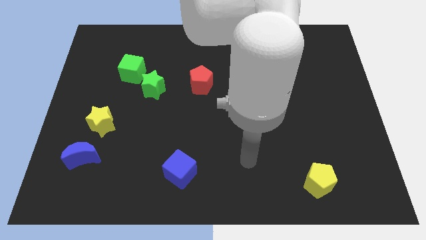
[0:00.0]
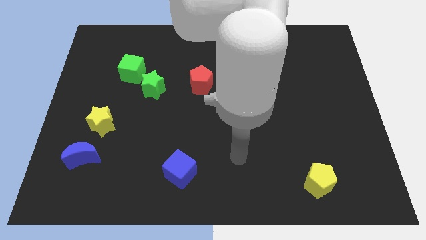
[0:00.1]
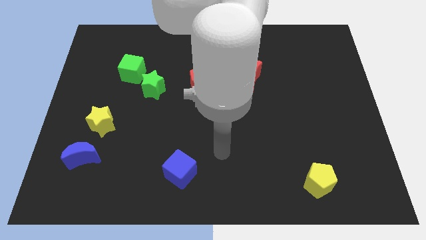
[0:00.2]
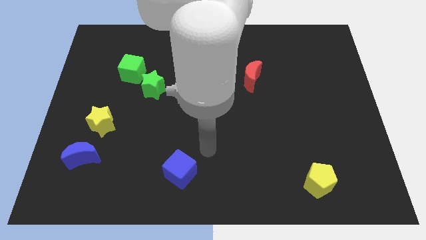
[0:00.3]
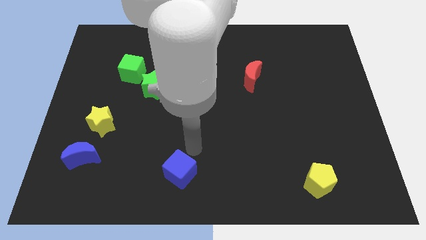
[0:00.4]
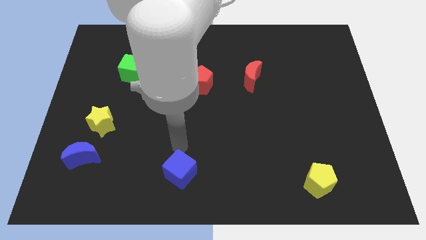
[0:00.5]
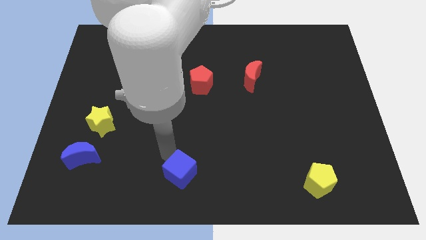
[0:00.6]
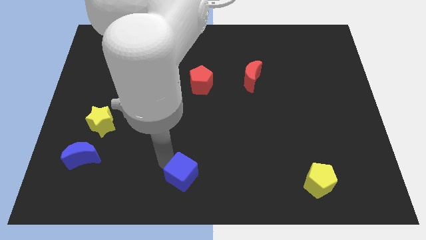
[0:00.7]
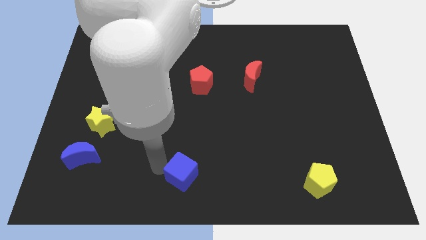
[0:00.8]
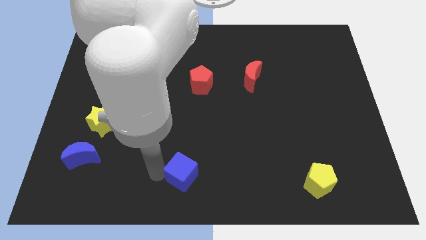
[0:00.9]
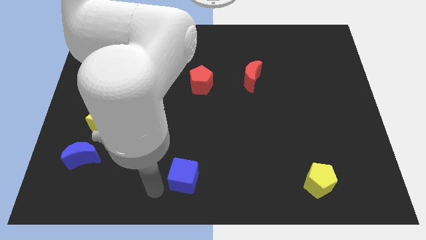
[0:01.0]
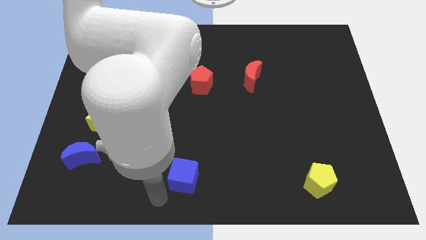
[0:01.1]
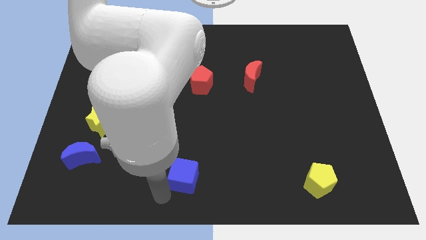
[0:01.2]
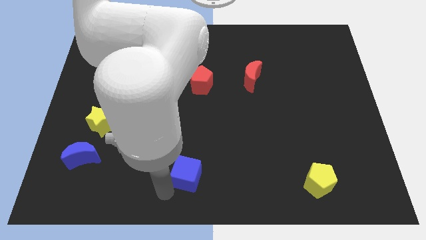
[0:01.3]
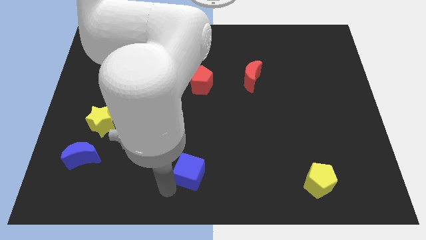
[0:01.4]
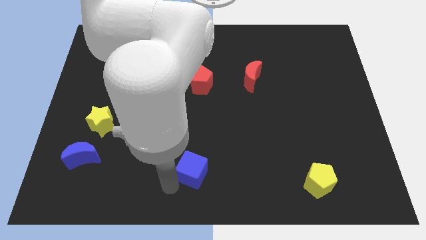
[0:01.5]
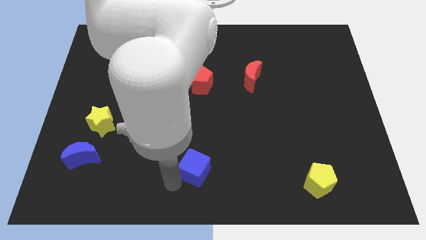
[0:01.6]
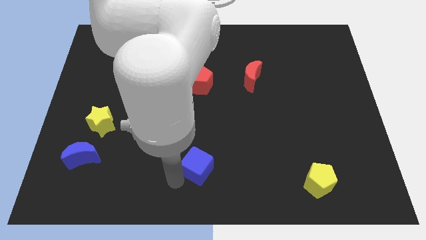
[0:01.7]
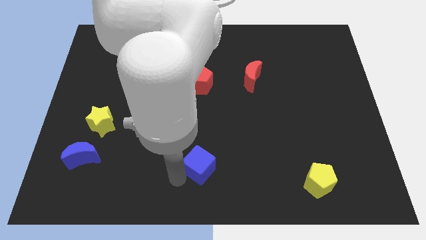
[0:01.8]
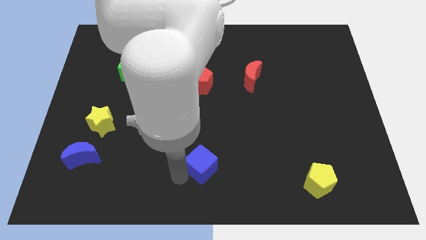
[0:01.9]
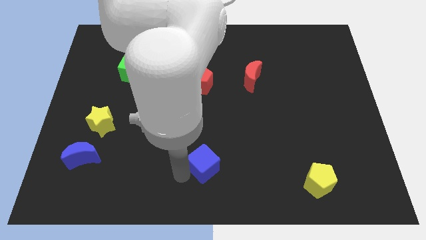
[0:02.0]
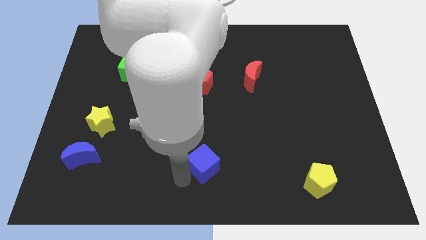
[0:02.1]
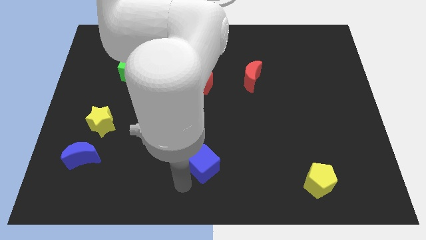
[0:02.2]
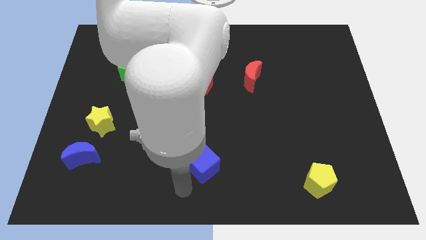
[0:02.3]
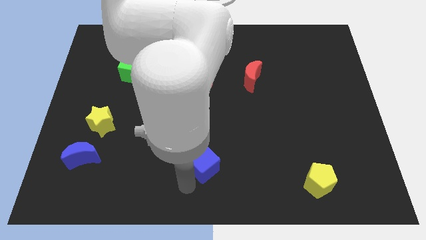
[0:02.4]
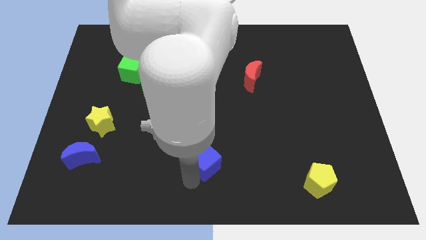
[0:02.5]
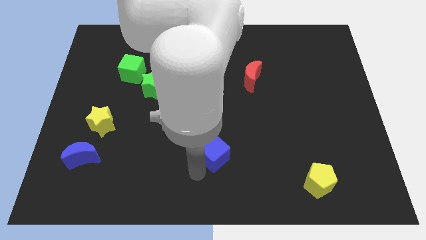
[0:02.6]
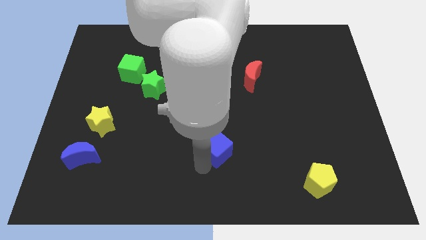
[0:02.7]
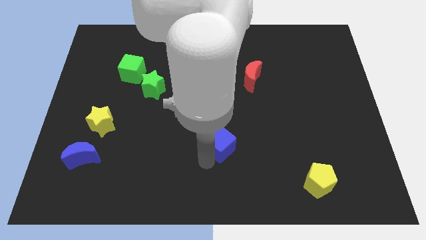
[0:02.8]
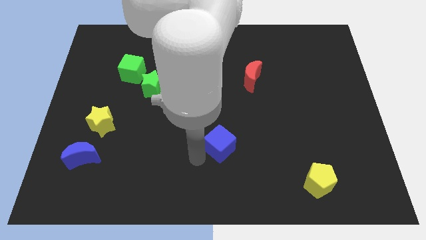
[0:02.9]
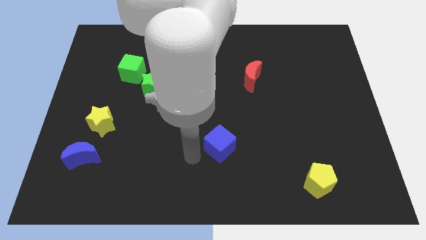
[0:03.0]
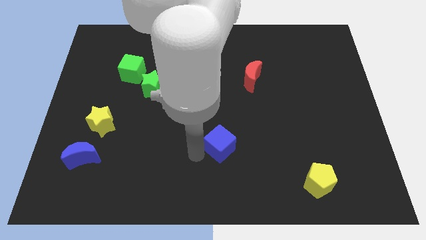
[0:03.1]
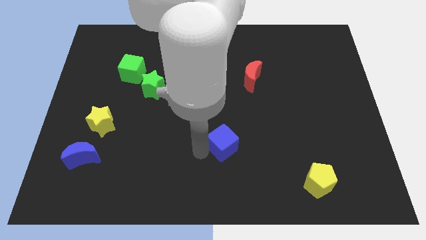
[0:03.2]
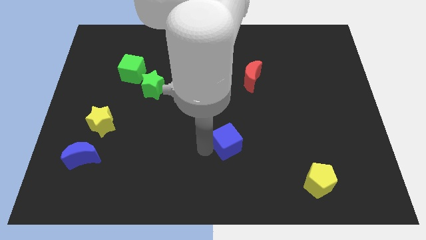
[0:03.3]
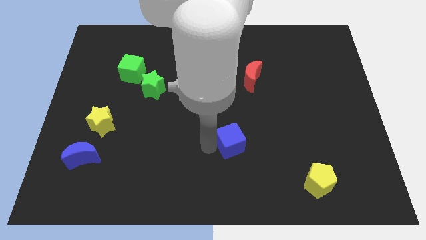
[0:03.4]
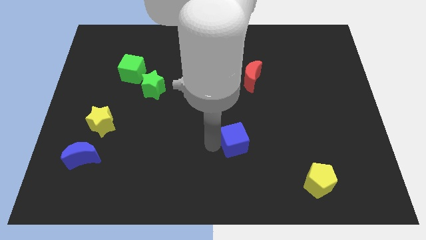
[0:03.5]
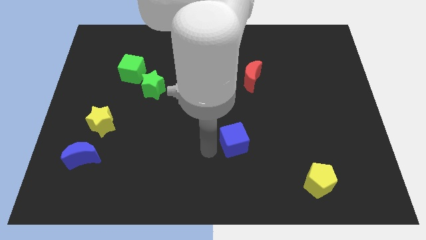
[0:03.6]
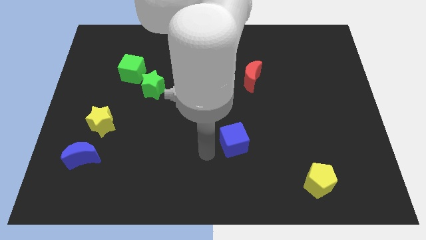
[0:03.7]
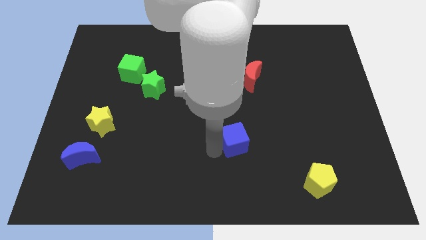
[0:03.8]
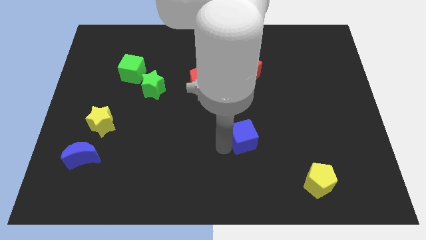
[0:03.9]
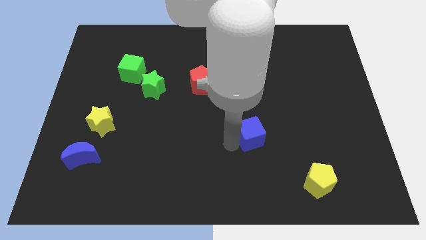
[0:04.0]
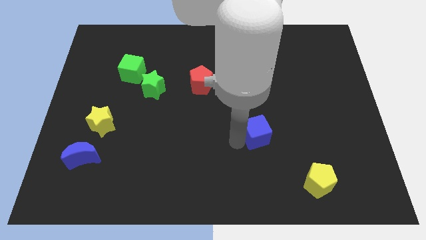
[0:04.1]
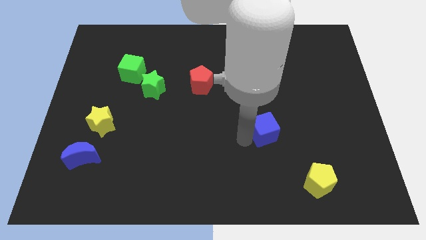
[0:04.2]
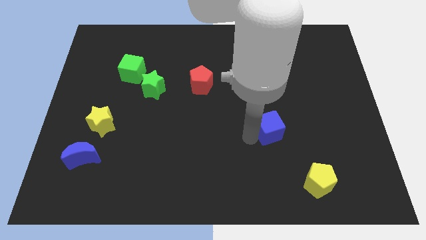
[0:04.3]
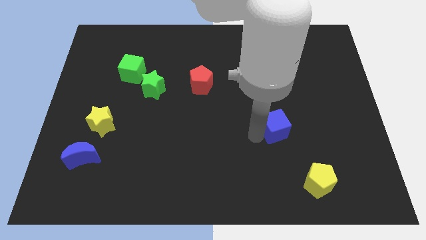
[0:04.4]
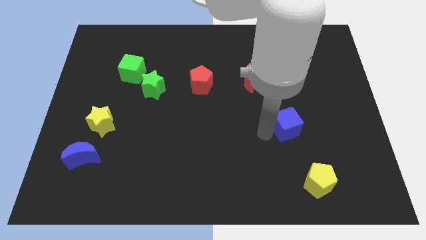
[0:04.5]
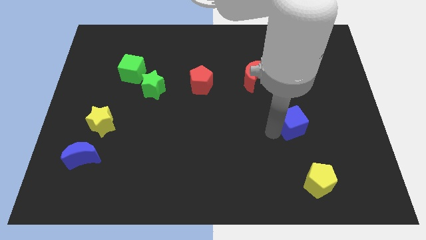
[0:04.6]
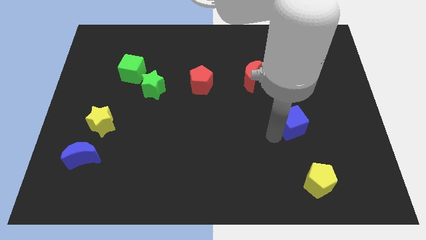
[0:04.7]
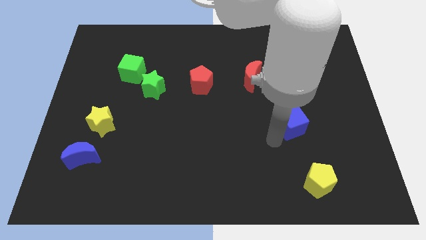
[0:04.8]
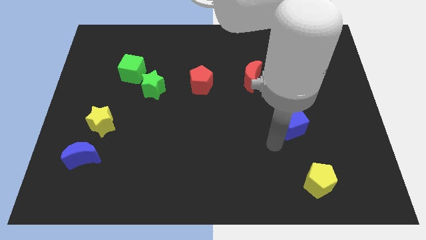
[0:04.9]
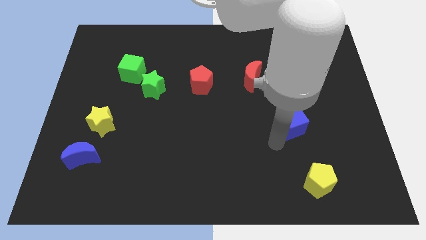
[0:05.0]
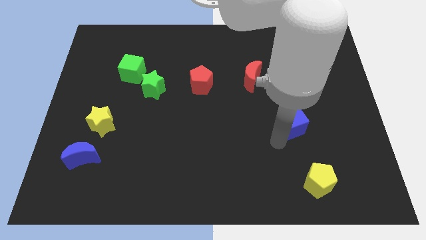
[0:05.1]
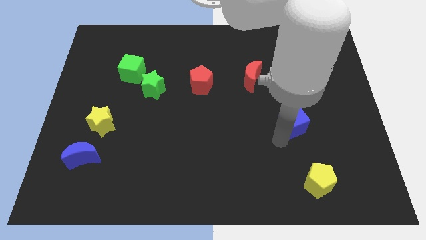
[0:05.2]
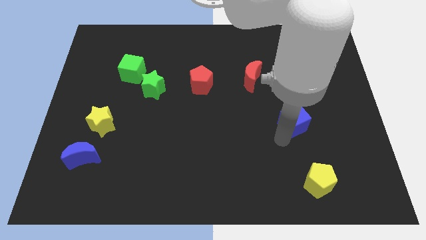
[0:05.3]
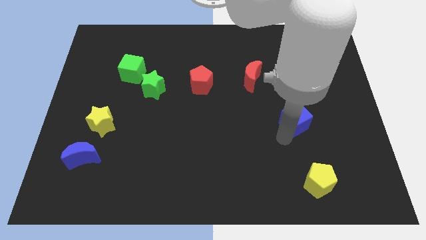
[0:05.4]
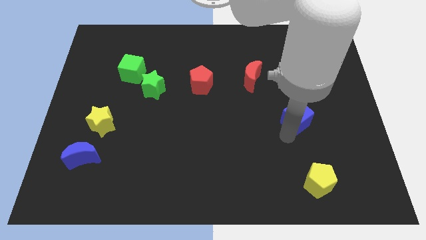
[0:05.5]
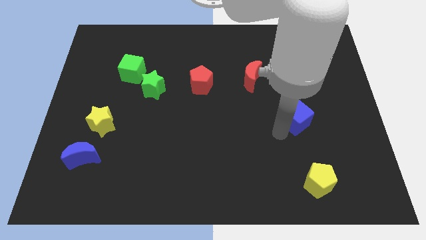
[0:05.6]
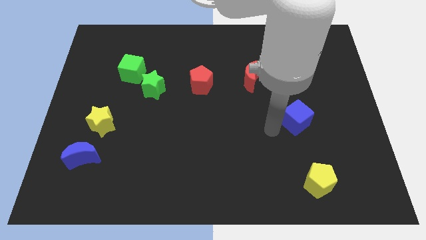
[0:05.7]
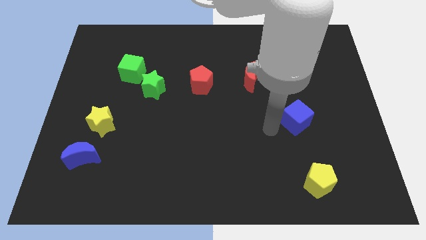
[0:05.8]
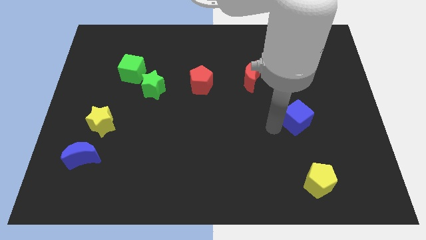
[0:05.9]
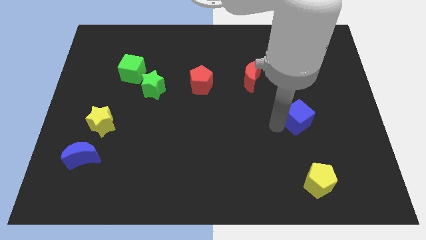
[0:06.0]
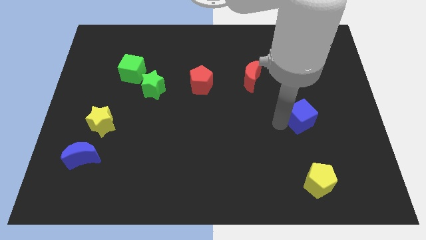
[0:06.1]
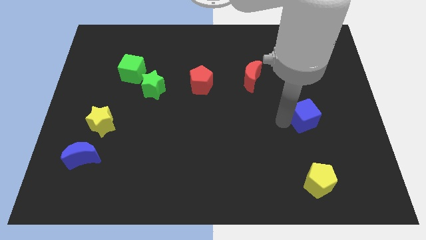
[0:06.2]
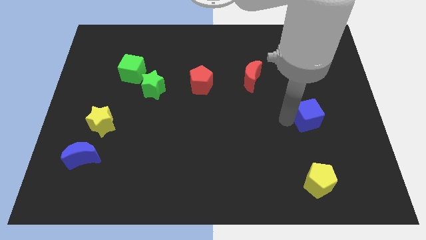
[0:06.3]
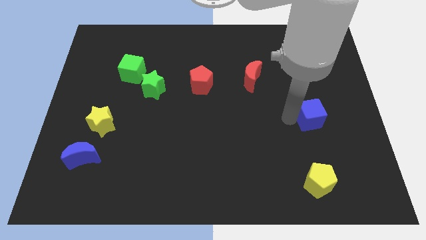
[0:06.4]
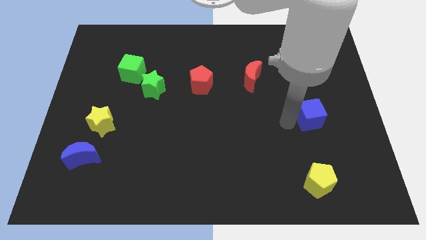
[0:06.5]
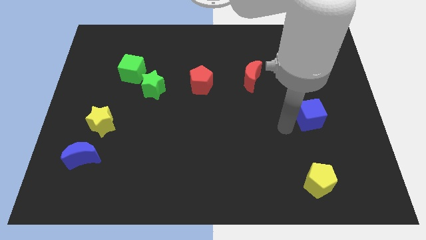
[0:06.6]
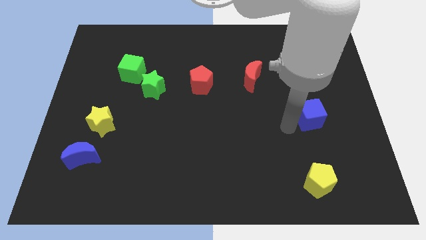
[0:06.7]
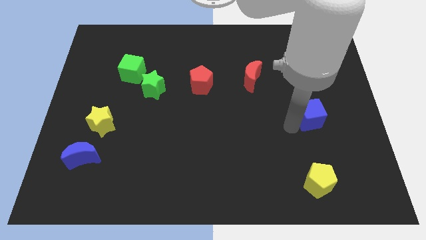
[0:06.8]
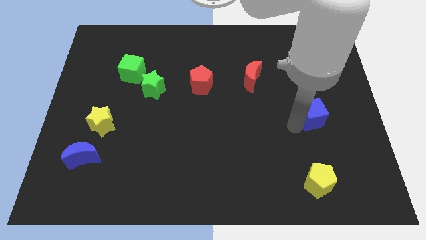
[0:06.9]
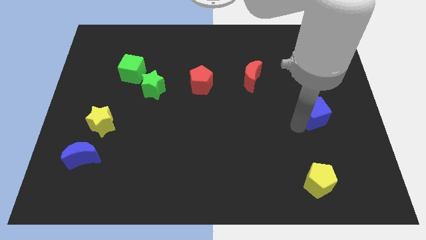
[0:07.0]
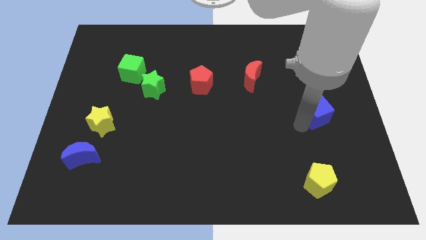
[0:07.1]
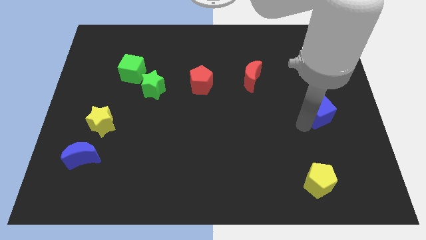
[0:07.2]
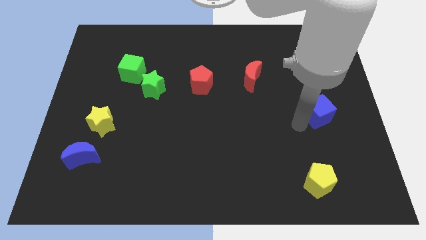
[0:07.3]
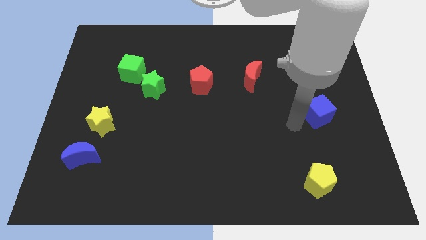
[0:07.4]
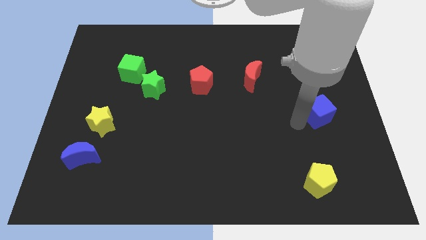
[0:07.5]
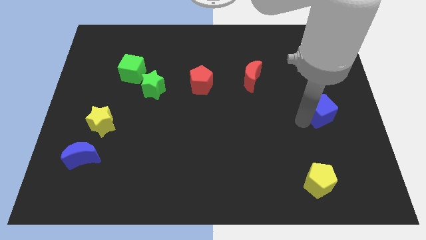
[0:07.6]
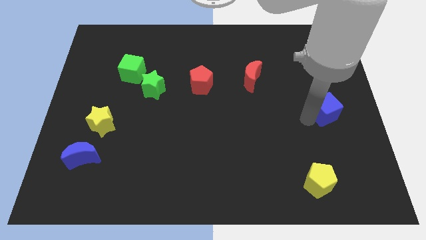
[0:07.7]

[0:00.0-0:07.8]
put the blue cube to the right side of the board
